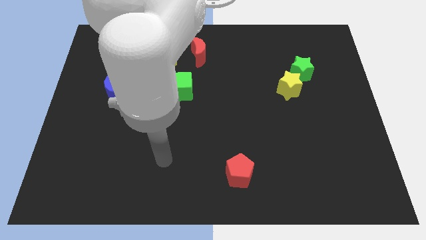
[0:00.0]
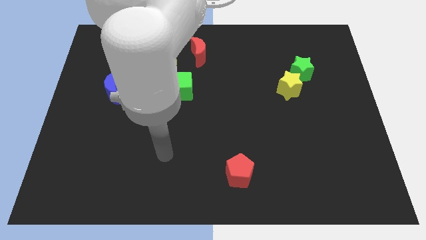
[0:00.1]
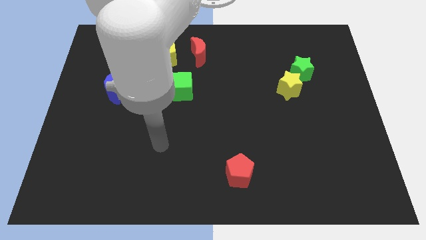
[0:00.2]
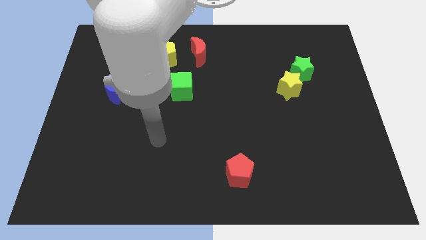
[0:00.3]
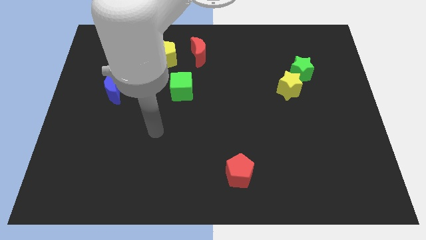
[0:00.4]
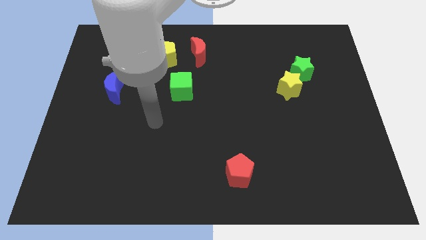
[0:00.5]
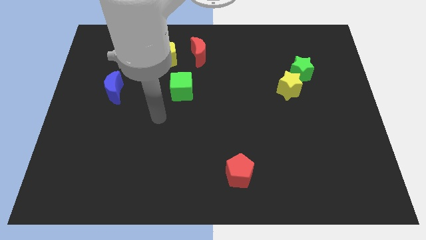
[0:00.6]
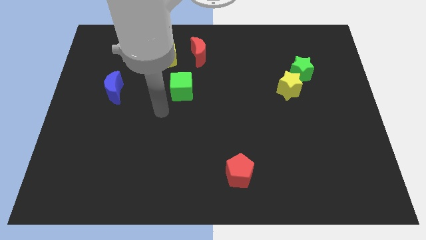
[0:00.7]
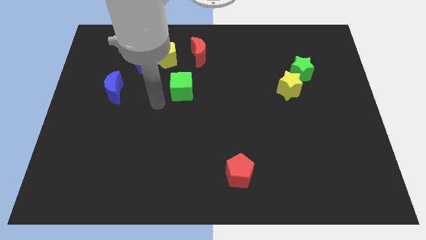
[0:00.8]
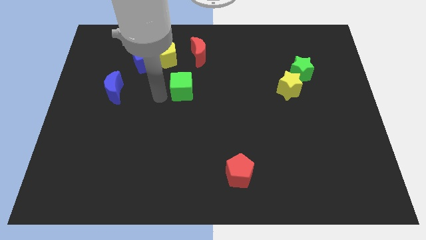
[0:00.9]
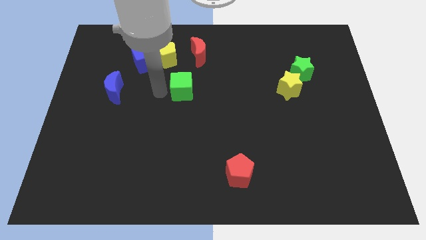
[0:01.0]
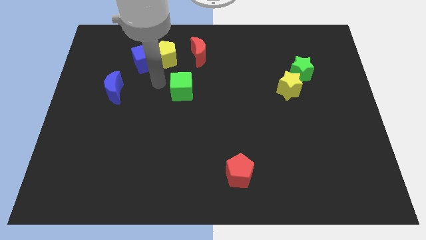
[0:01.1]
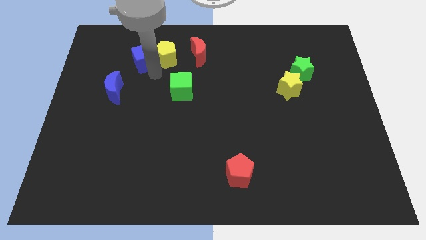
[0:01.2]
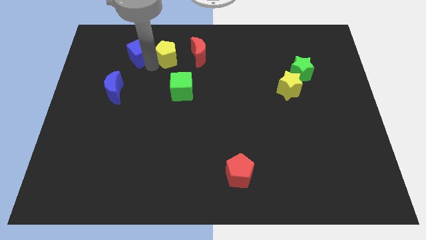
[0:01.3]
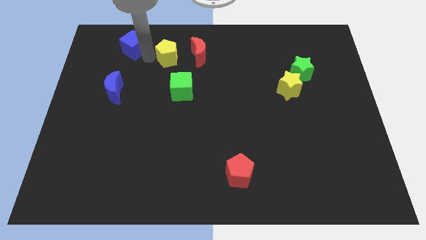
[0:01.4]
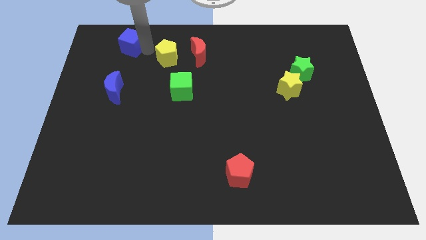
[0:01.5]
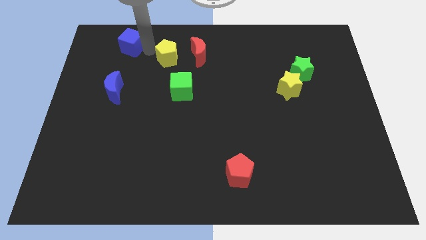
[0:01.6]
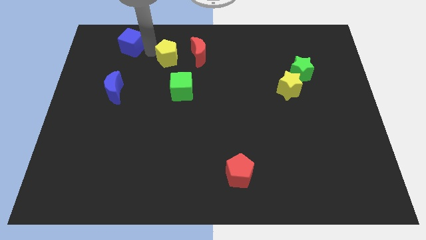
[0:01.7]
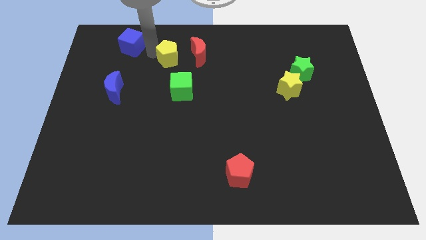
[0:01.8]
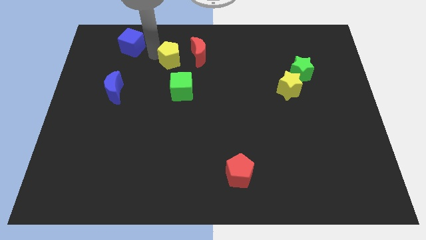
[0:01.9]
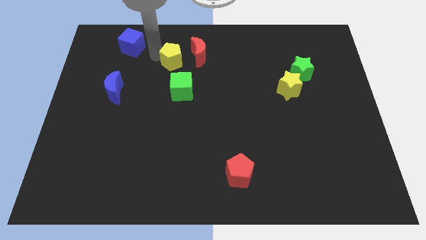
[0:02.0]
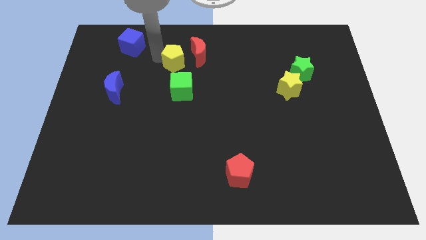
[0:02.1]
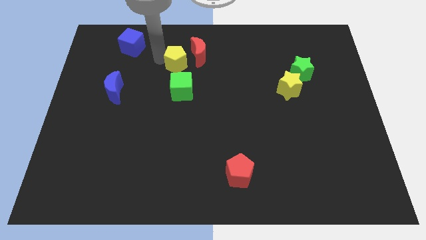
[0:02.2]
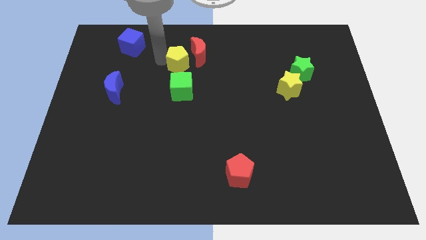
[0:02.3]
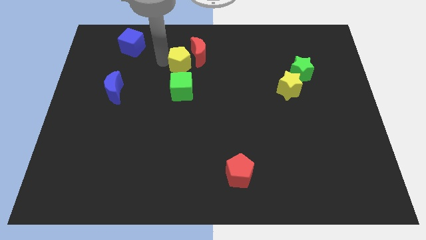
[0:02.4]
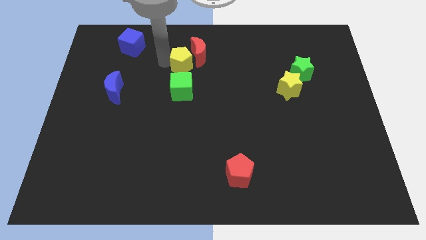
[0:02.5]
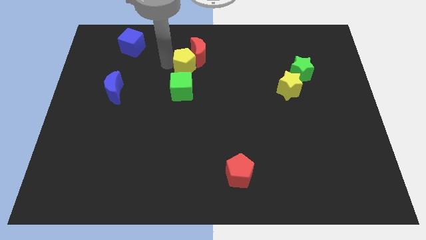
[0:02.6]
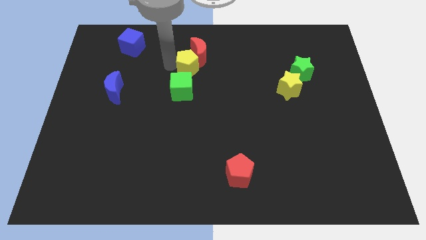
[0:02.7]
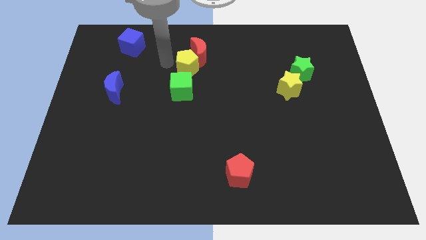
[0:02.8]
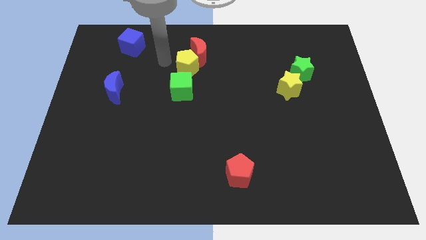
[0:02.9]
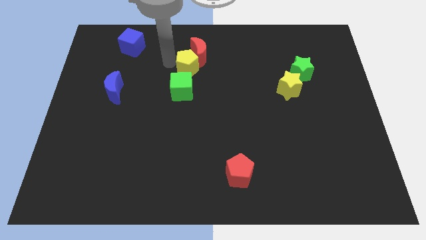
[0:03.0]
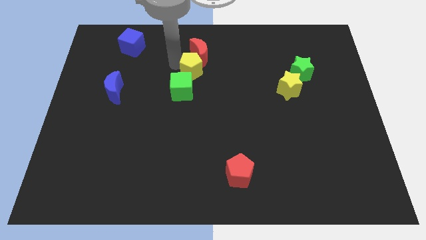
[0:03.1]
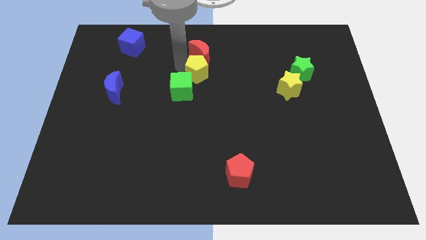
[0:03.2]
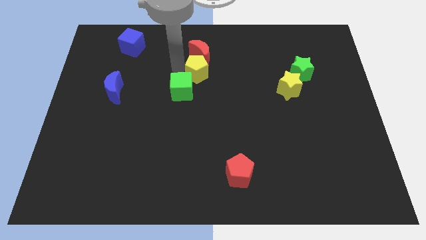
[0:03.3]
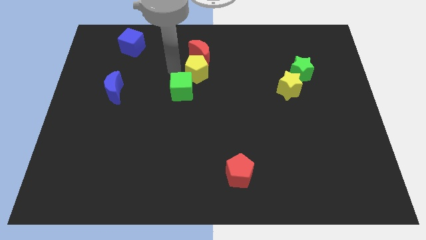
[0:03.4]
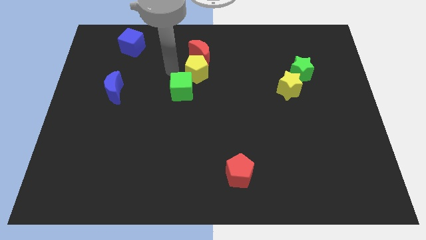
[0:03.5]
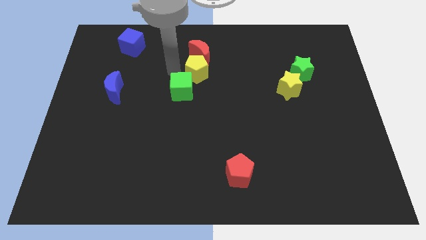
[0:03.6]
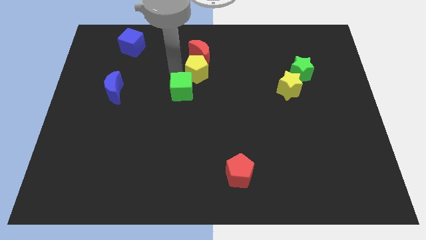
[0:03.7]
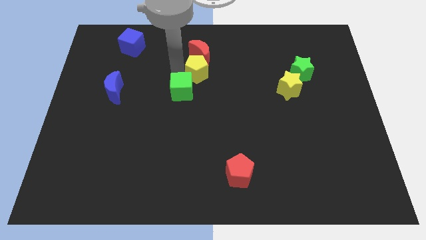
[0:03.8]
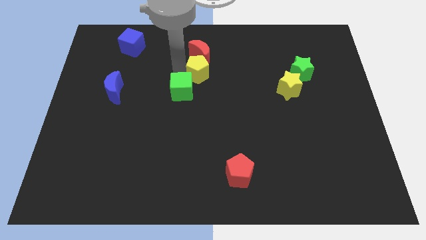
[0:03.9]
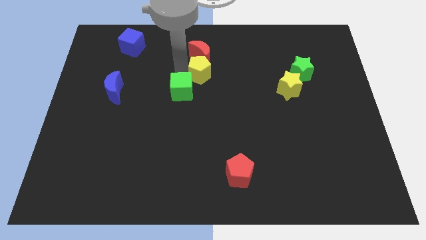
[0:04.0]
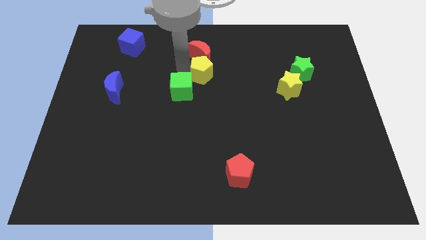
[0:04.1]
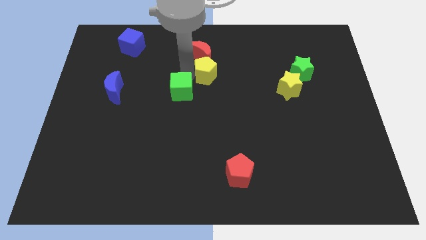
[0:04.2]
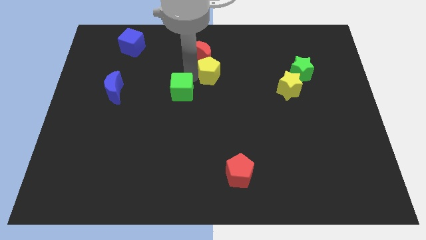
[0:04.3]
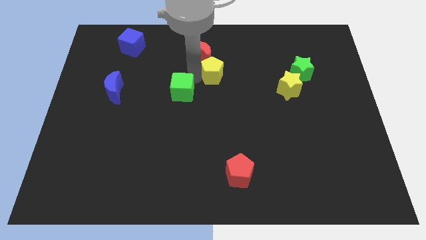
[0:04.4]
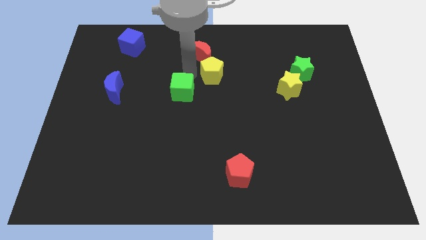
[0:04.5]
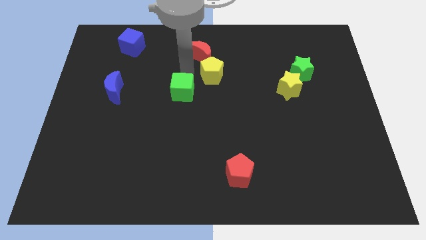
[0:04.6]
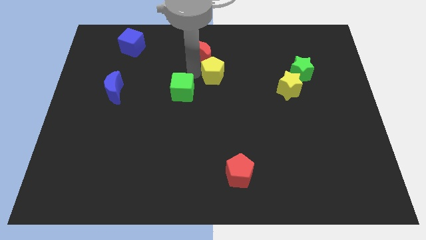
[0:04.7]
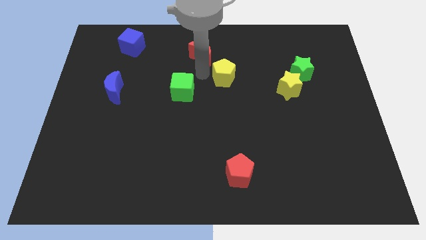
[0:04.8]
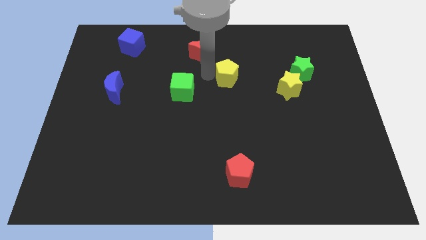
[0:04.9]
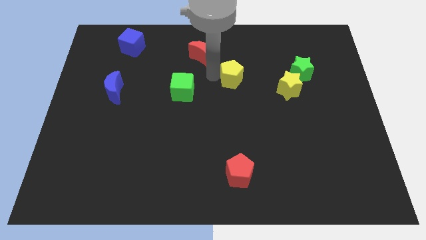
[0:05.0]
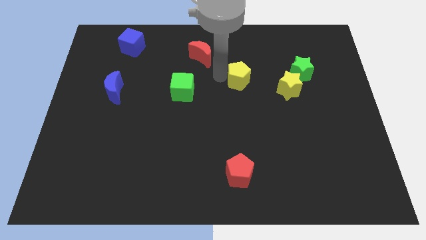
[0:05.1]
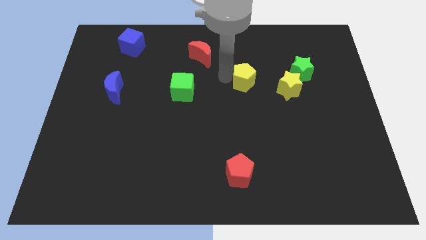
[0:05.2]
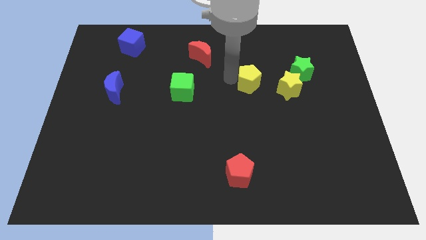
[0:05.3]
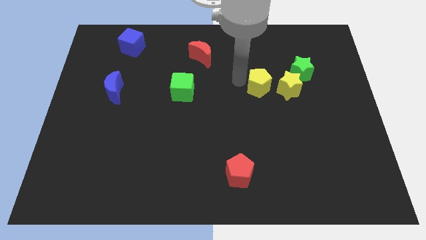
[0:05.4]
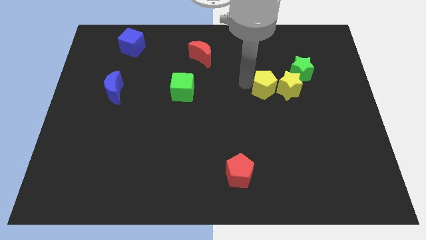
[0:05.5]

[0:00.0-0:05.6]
push the yellow pentagon to the bottom left side of the green star

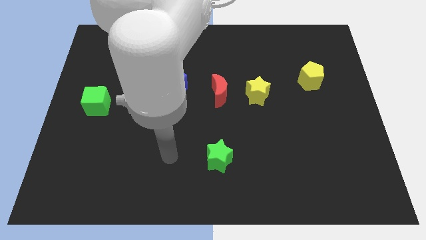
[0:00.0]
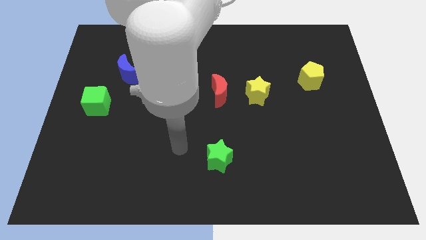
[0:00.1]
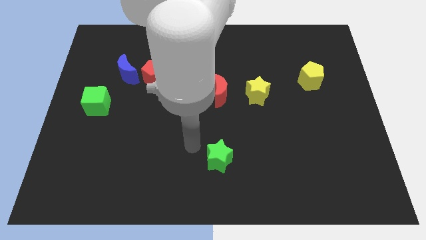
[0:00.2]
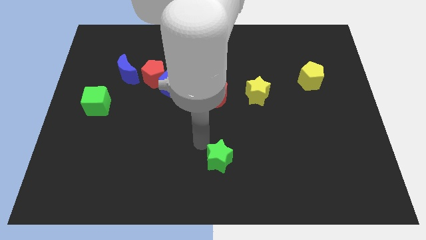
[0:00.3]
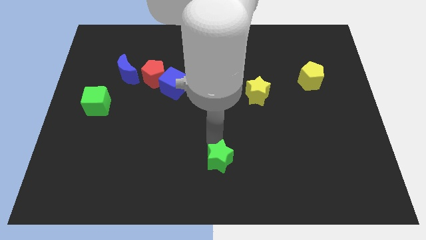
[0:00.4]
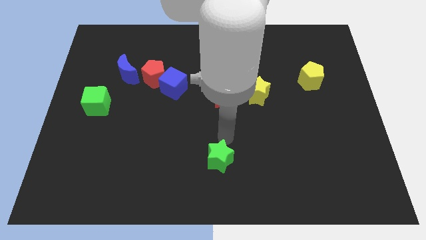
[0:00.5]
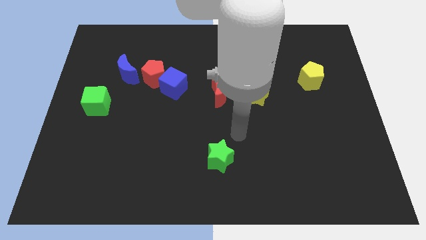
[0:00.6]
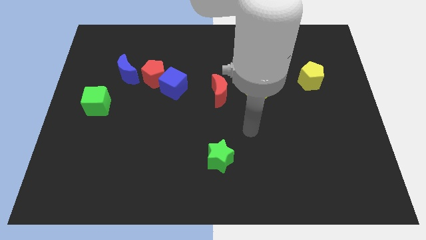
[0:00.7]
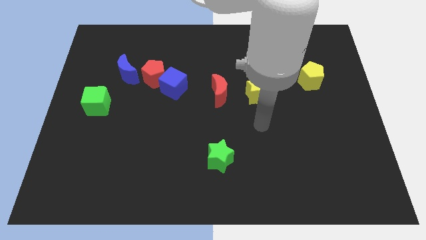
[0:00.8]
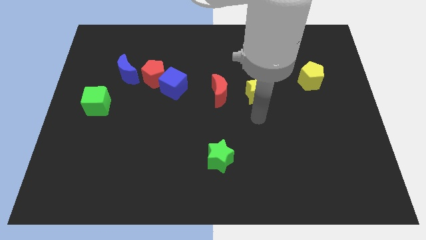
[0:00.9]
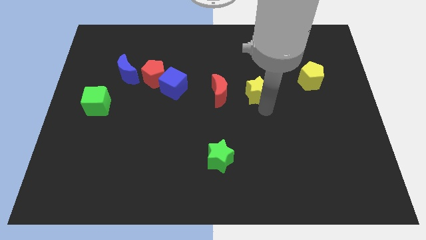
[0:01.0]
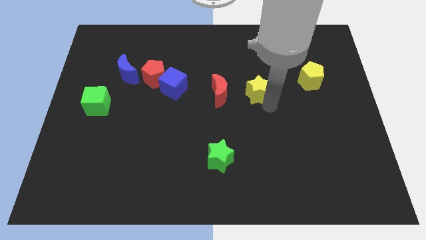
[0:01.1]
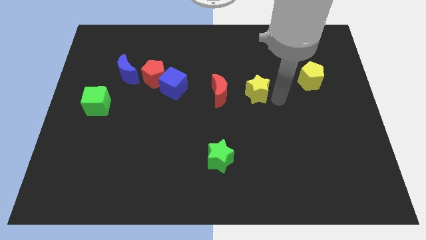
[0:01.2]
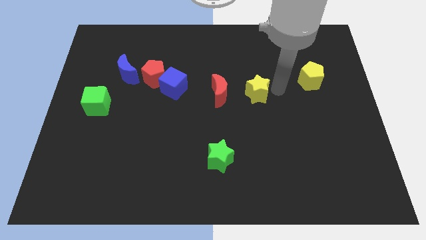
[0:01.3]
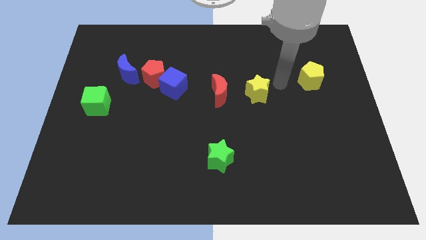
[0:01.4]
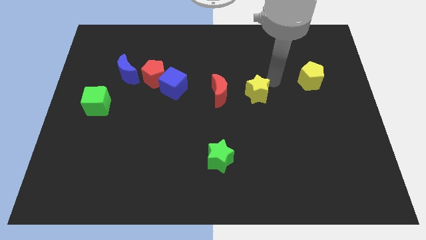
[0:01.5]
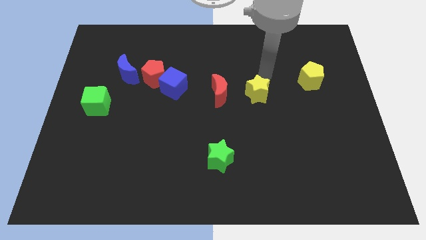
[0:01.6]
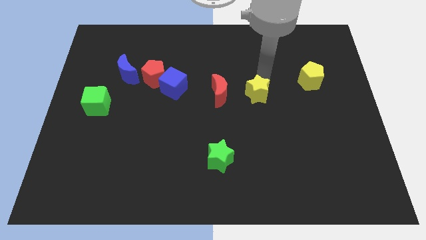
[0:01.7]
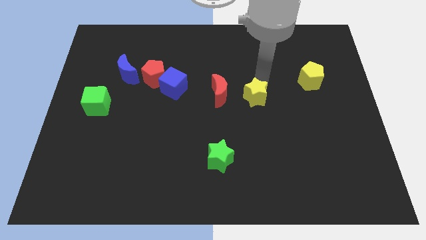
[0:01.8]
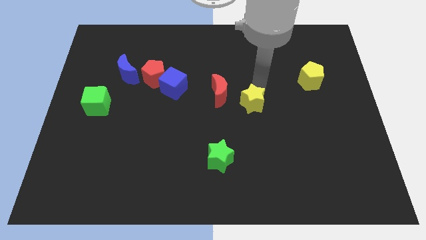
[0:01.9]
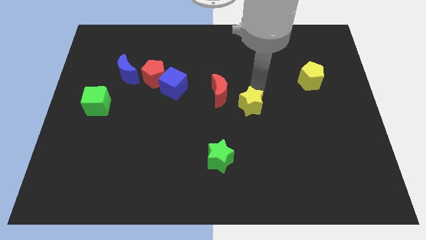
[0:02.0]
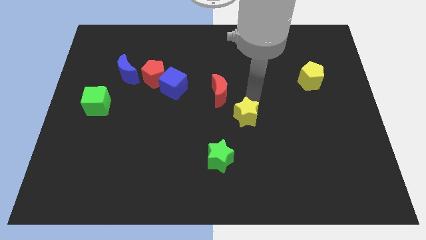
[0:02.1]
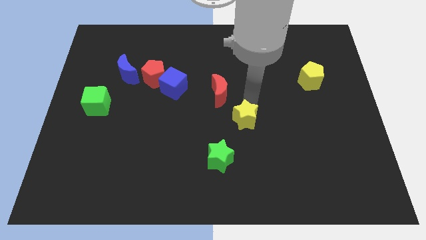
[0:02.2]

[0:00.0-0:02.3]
move the yellow star diagonally up and to the right of the green star
